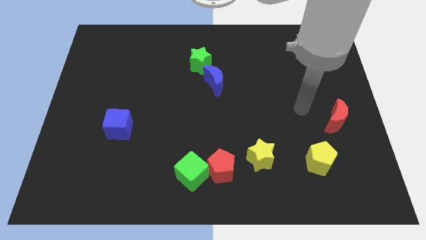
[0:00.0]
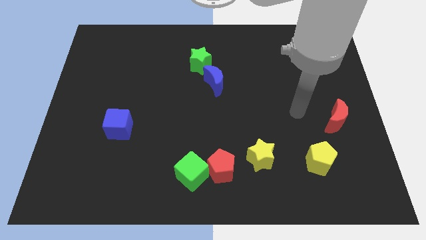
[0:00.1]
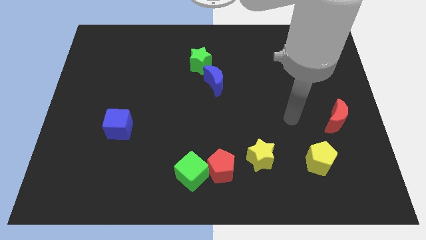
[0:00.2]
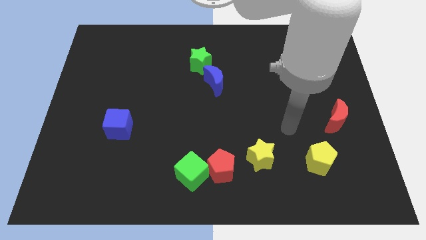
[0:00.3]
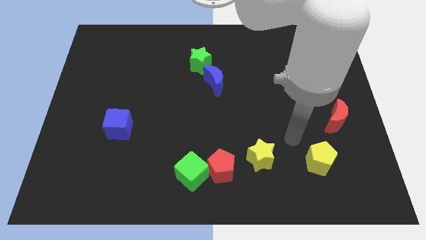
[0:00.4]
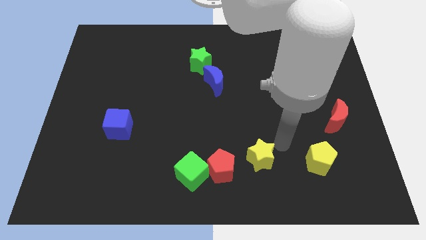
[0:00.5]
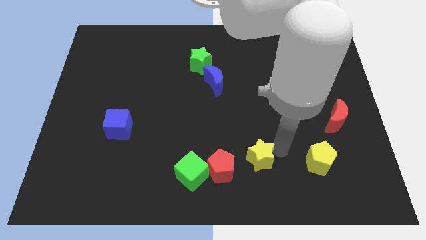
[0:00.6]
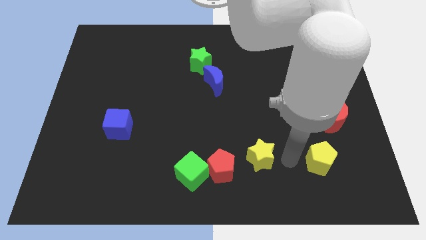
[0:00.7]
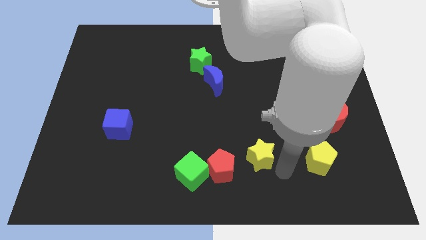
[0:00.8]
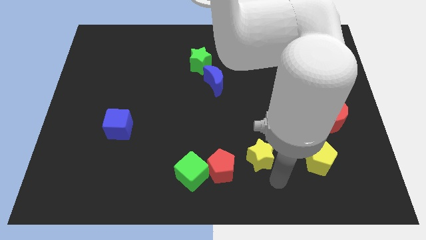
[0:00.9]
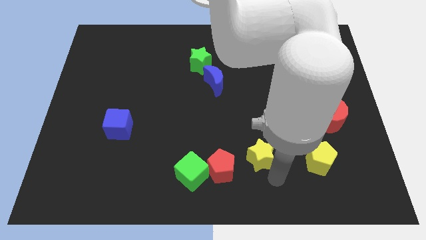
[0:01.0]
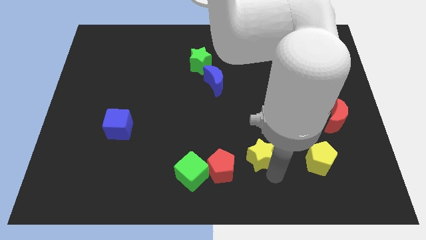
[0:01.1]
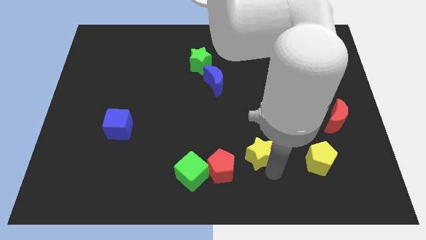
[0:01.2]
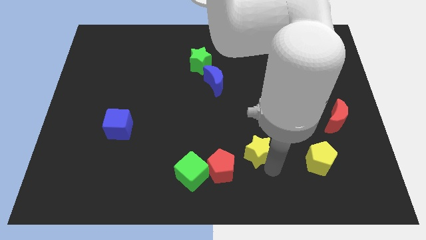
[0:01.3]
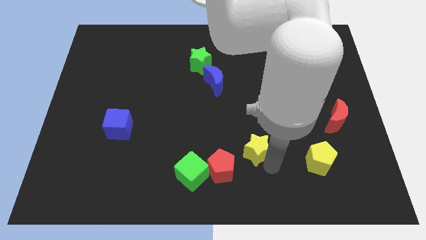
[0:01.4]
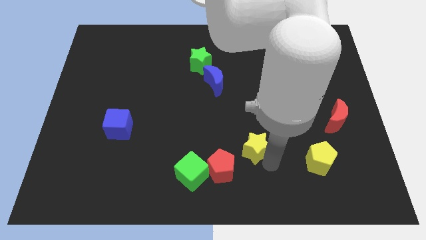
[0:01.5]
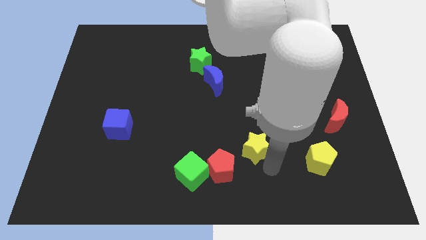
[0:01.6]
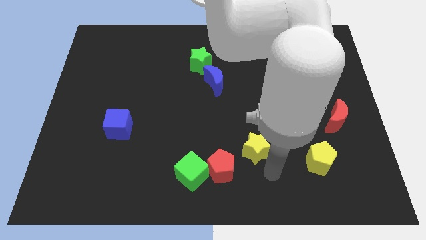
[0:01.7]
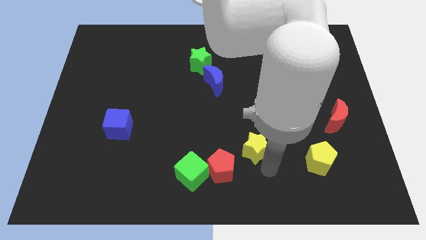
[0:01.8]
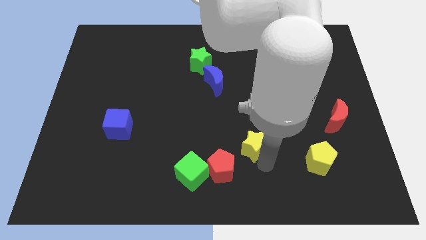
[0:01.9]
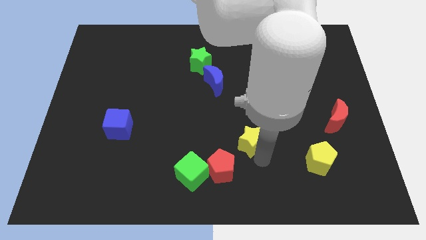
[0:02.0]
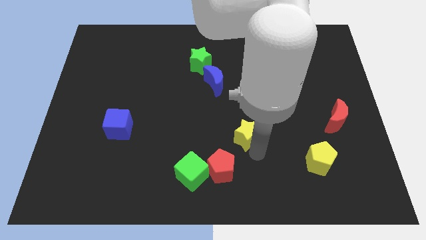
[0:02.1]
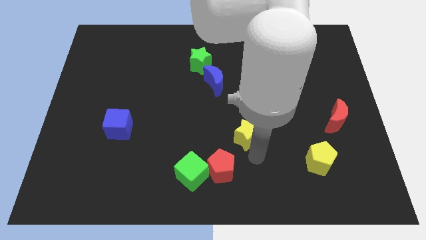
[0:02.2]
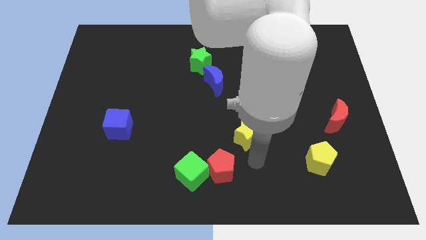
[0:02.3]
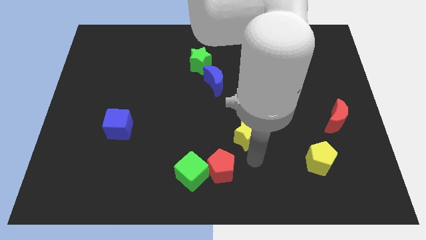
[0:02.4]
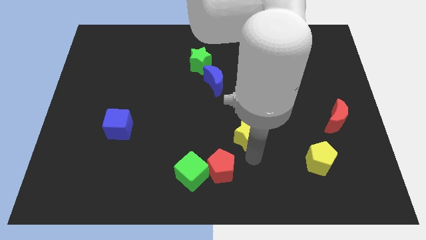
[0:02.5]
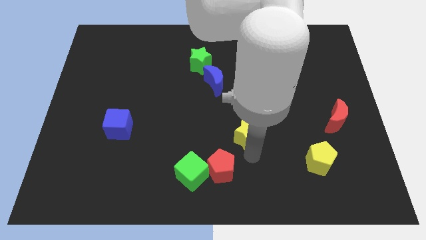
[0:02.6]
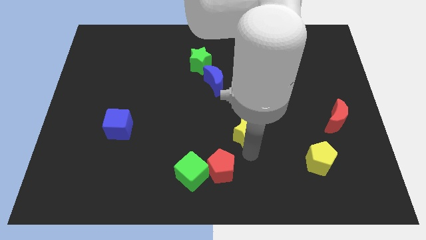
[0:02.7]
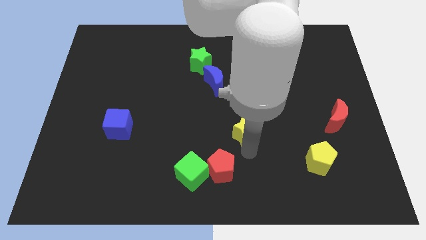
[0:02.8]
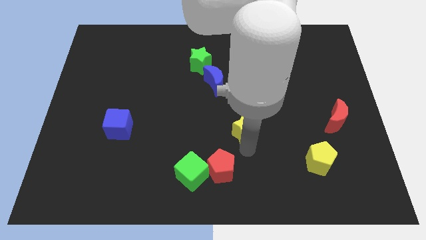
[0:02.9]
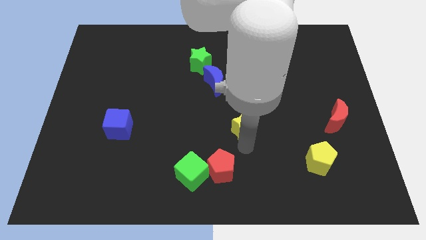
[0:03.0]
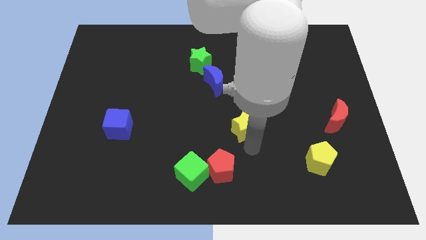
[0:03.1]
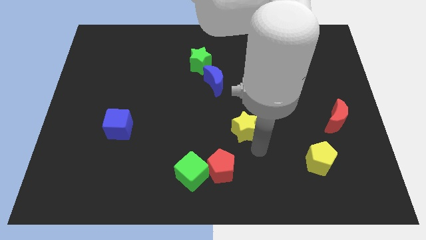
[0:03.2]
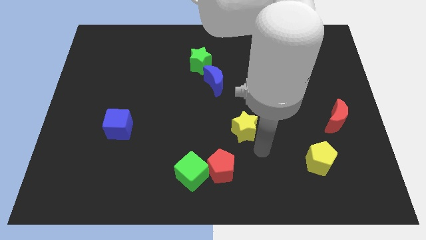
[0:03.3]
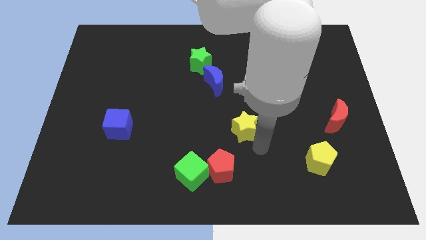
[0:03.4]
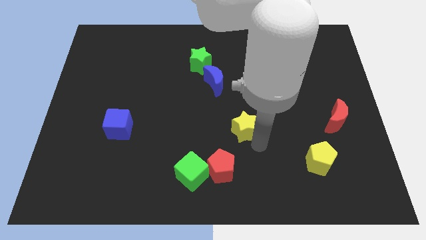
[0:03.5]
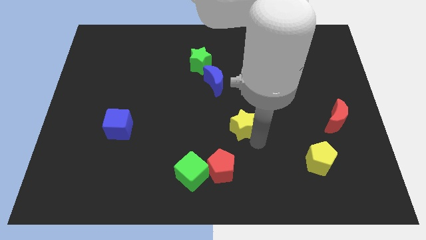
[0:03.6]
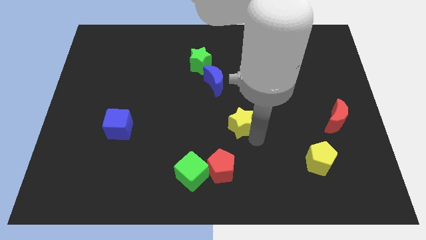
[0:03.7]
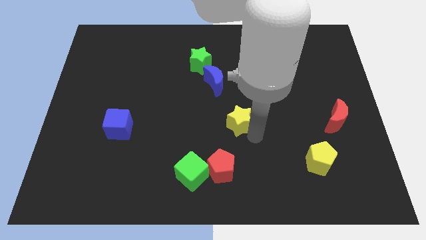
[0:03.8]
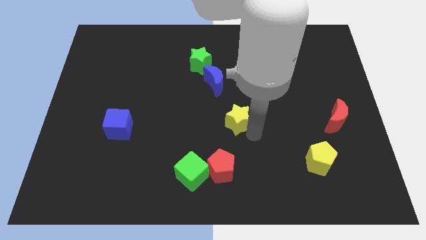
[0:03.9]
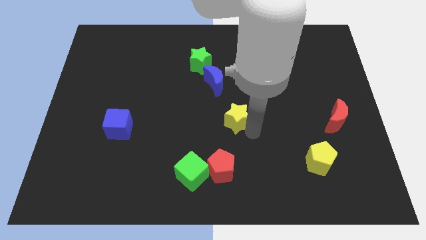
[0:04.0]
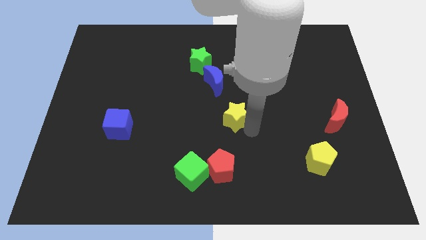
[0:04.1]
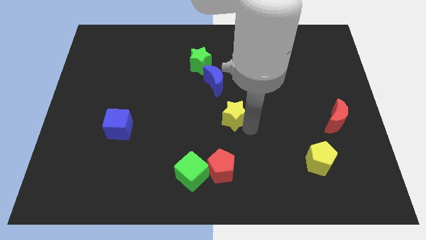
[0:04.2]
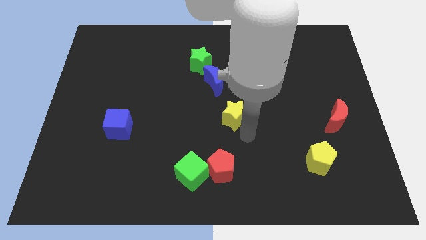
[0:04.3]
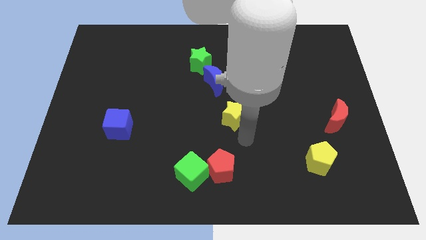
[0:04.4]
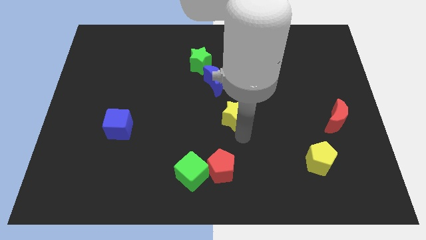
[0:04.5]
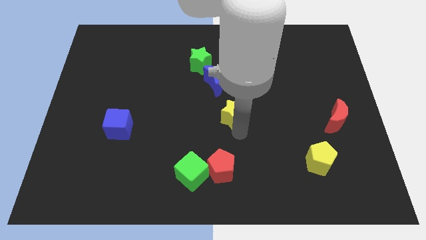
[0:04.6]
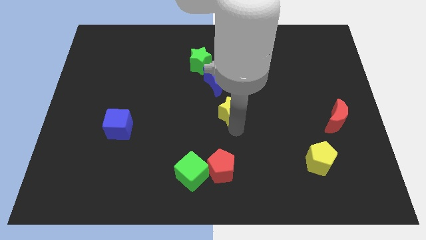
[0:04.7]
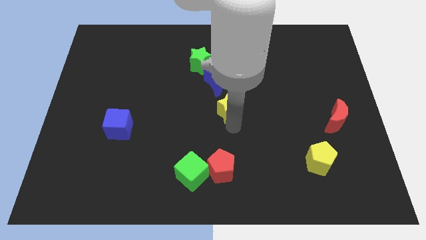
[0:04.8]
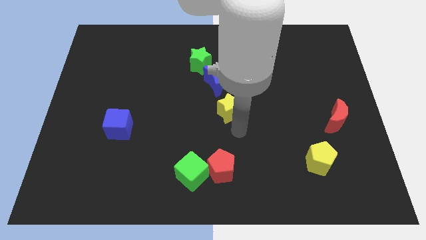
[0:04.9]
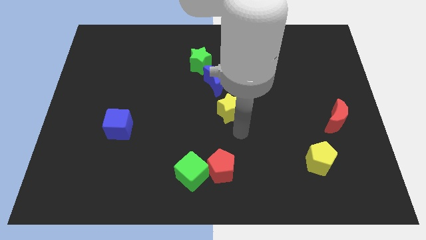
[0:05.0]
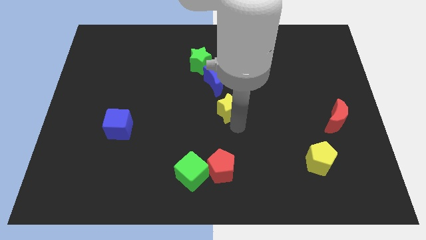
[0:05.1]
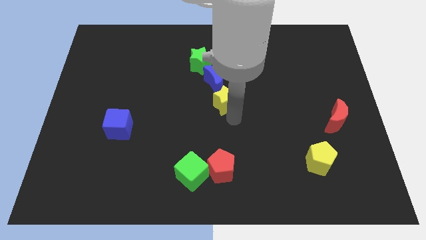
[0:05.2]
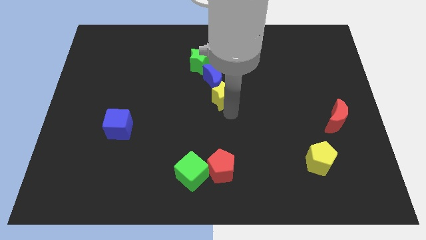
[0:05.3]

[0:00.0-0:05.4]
push the yellow star close to the blue moon

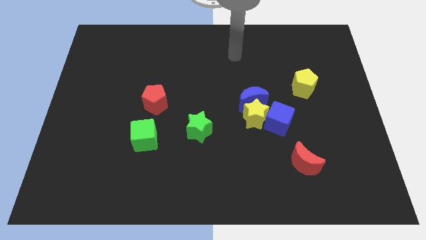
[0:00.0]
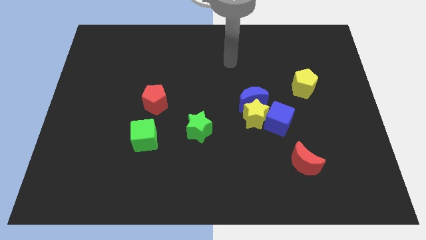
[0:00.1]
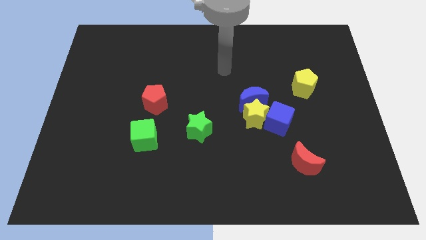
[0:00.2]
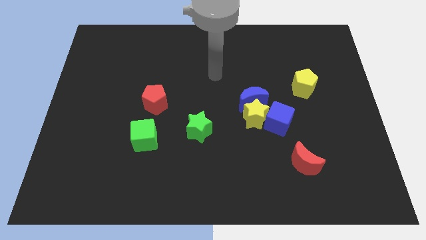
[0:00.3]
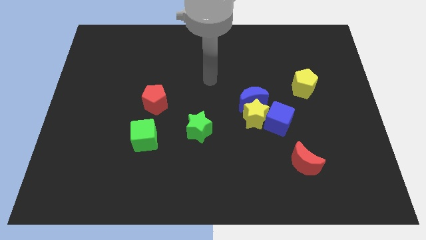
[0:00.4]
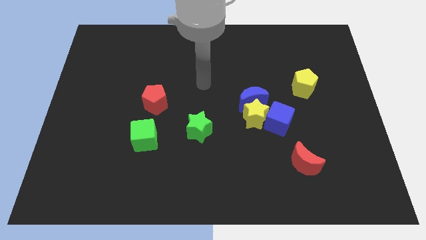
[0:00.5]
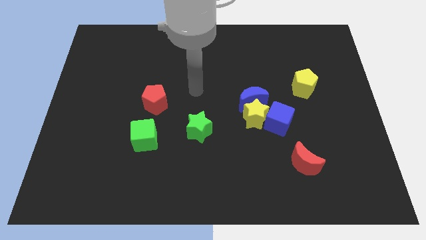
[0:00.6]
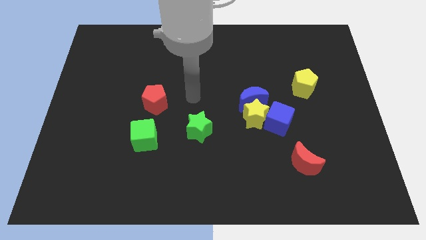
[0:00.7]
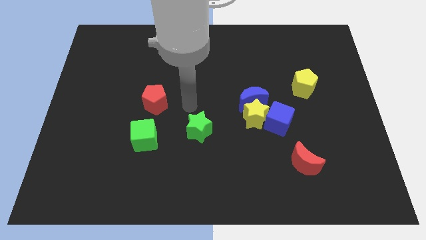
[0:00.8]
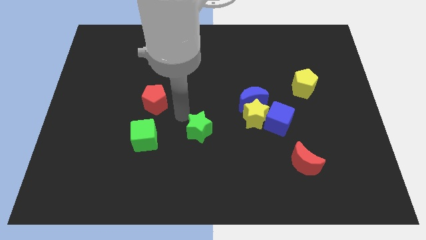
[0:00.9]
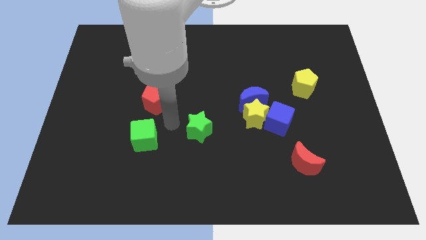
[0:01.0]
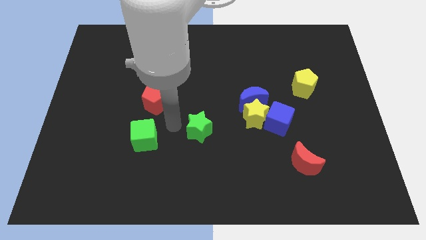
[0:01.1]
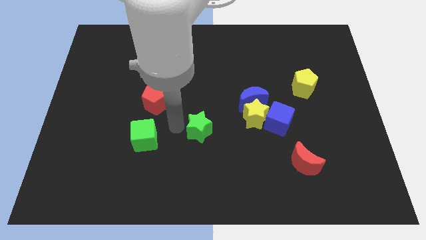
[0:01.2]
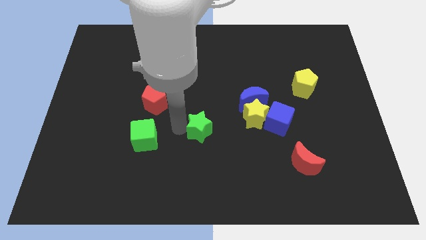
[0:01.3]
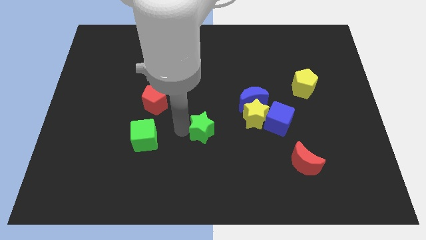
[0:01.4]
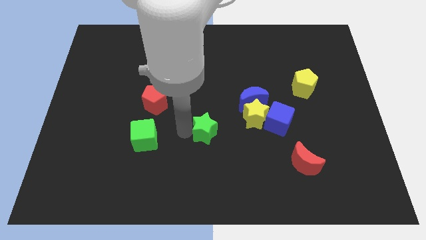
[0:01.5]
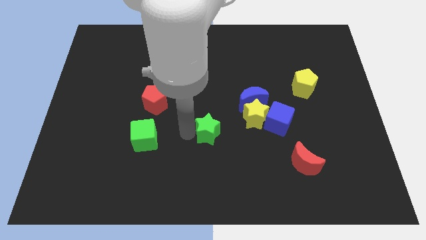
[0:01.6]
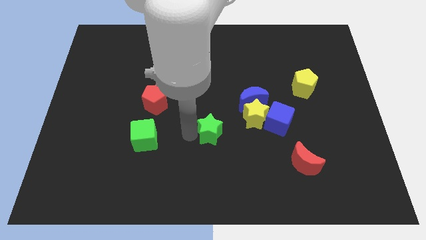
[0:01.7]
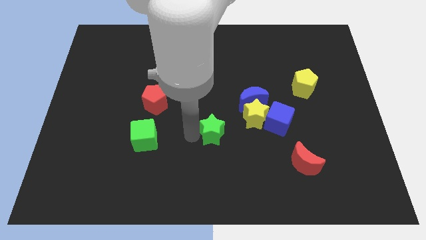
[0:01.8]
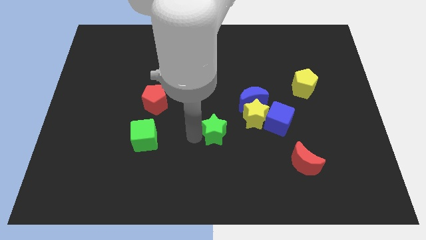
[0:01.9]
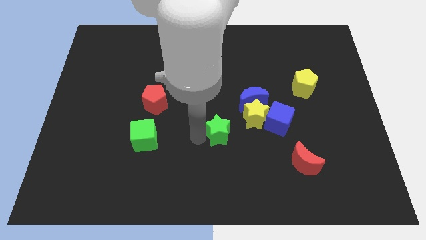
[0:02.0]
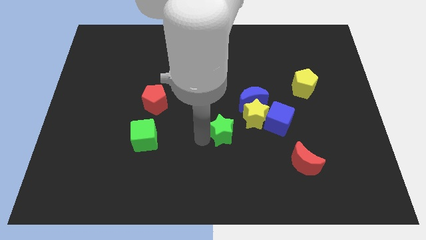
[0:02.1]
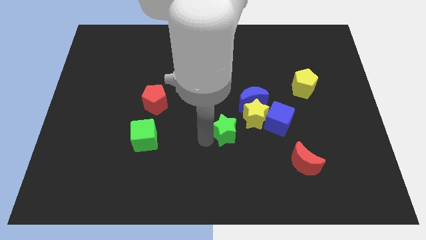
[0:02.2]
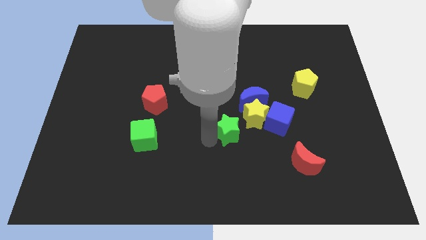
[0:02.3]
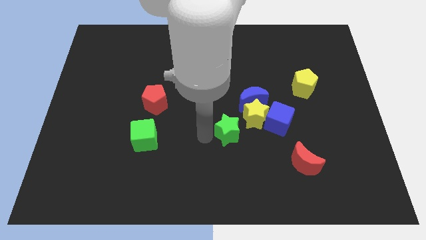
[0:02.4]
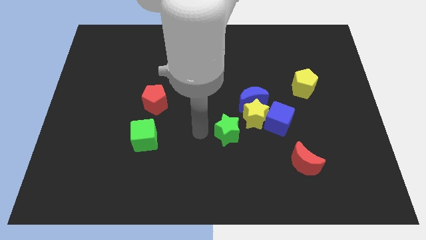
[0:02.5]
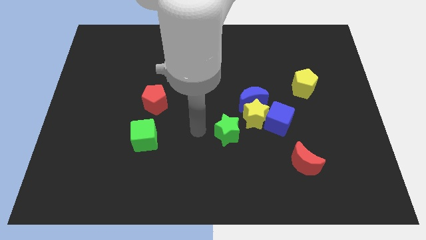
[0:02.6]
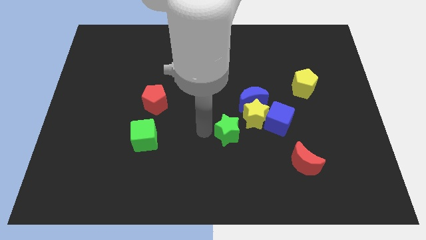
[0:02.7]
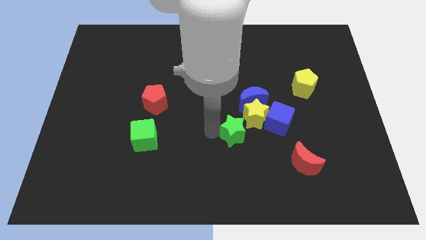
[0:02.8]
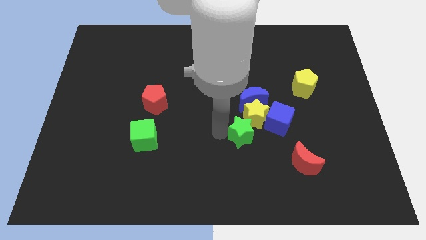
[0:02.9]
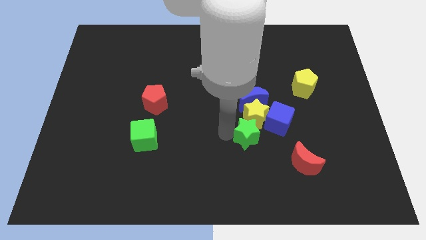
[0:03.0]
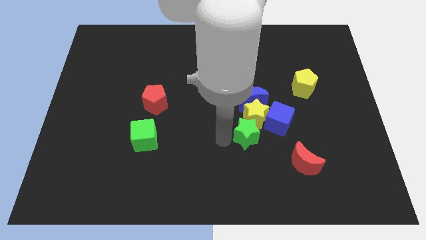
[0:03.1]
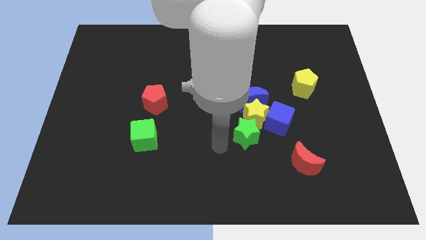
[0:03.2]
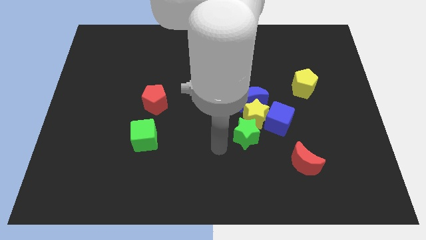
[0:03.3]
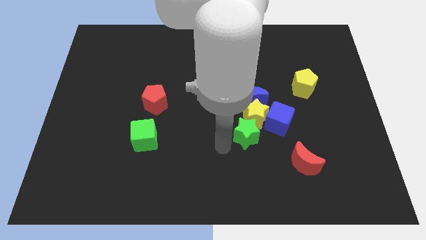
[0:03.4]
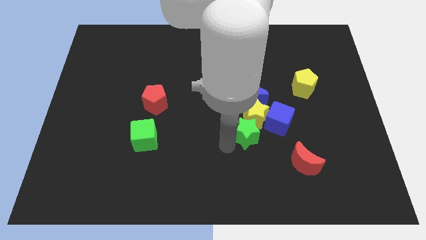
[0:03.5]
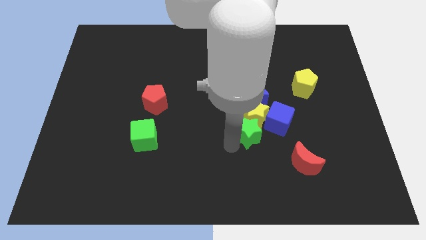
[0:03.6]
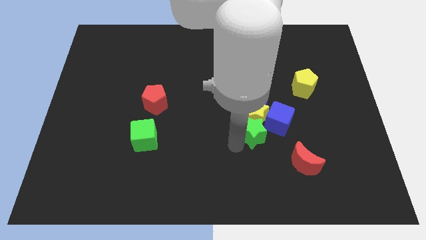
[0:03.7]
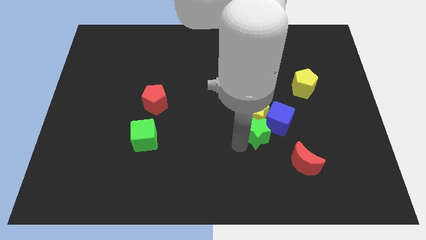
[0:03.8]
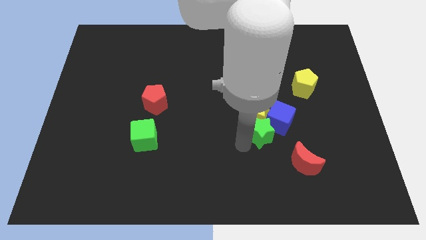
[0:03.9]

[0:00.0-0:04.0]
put the green star next to the blue cube
